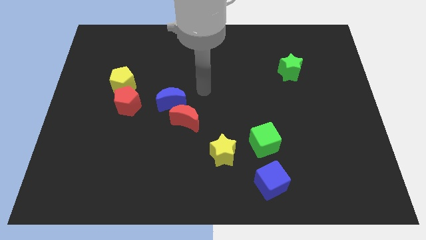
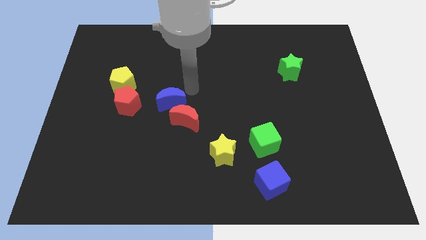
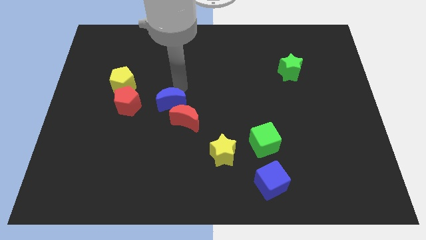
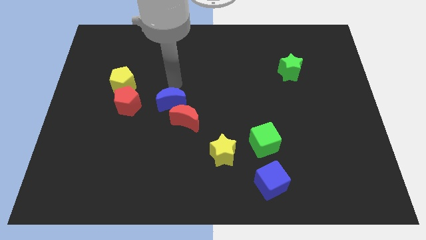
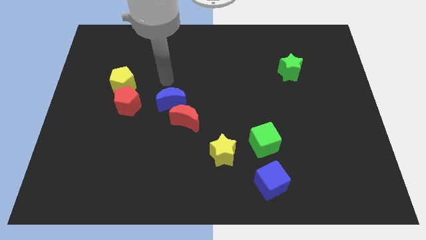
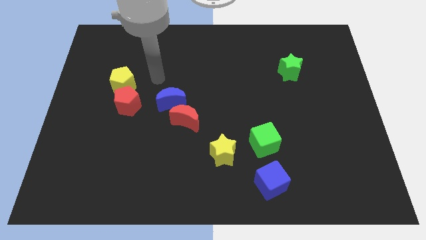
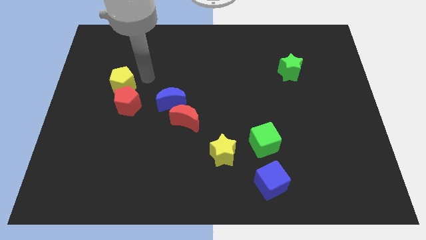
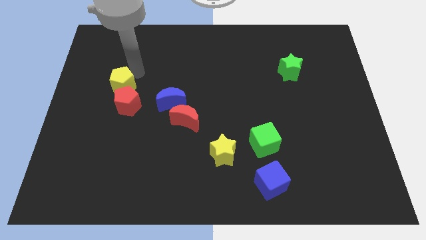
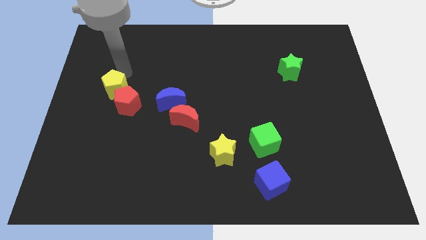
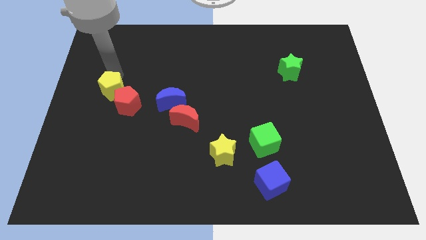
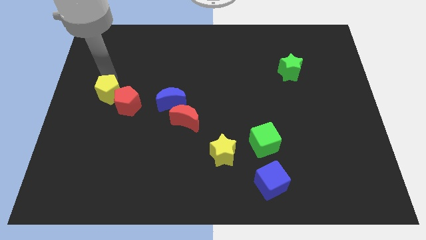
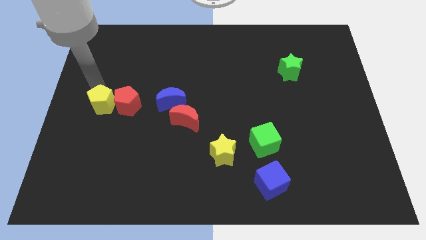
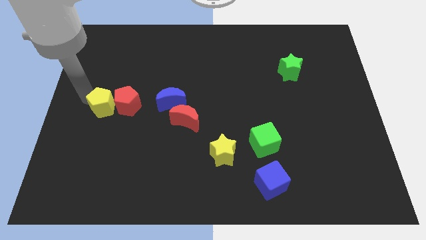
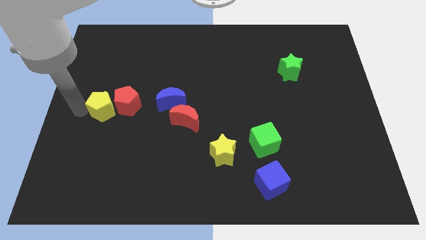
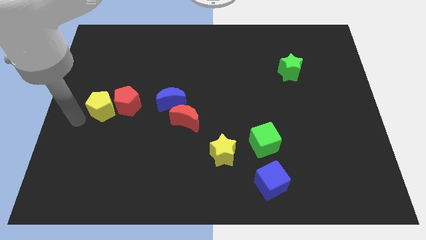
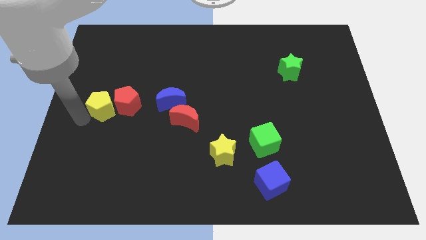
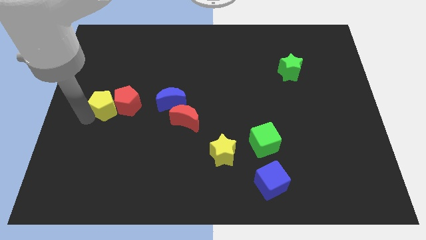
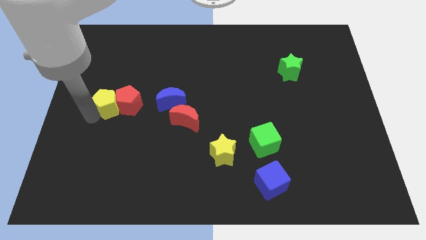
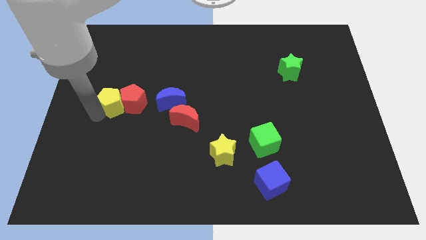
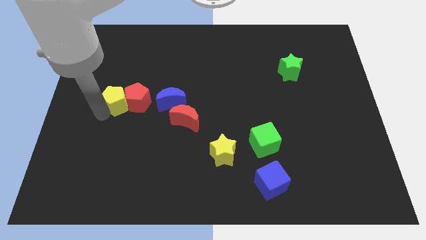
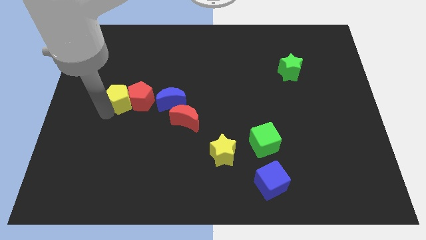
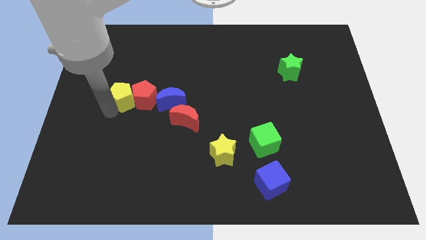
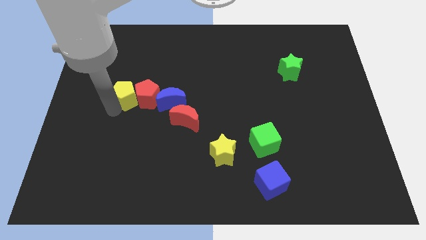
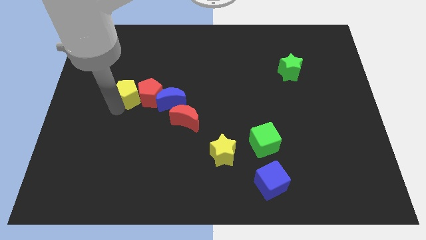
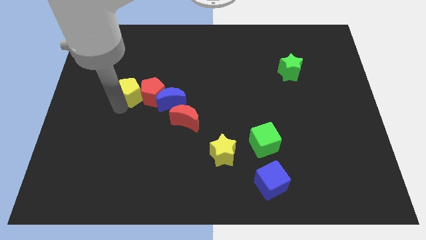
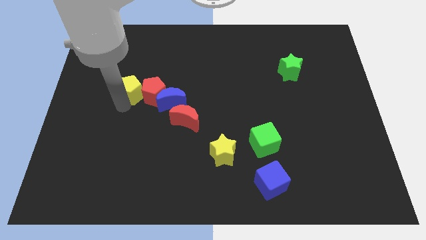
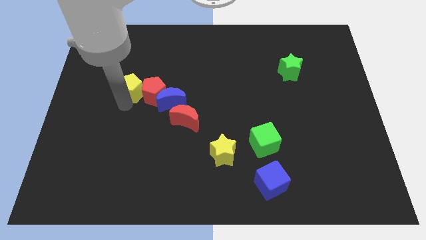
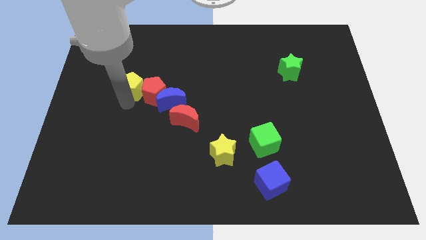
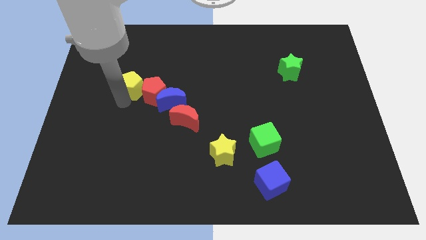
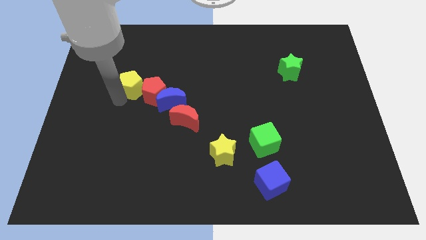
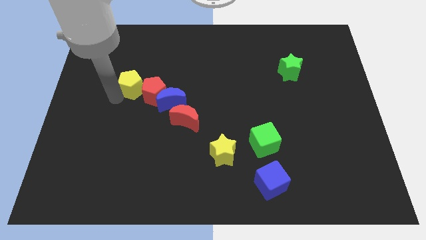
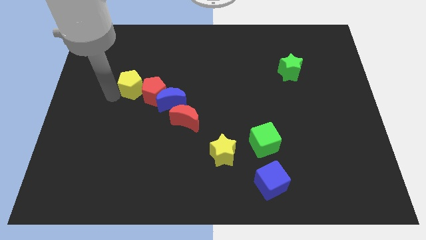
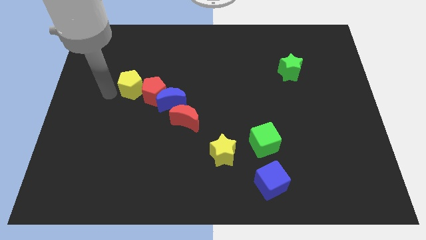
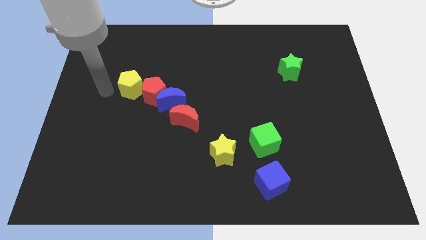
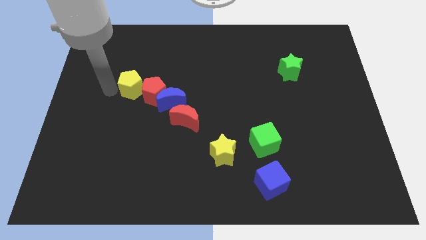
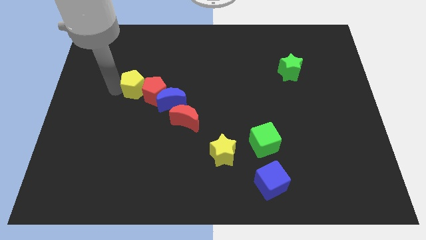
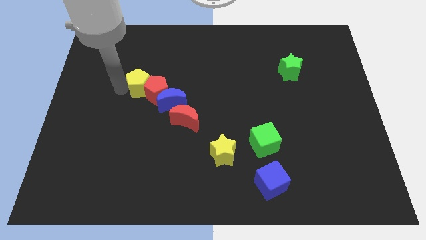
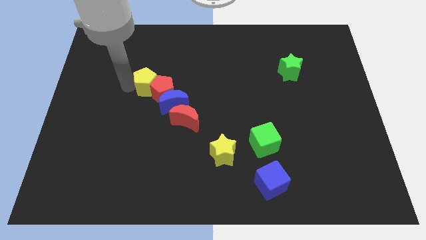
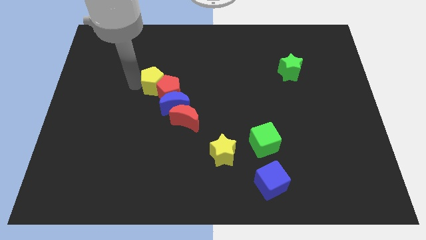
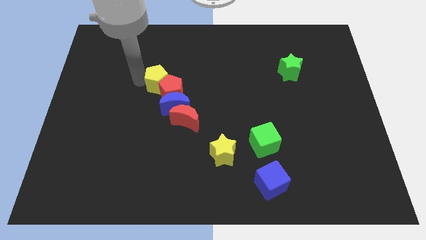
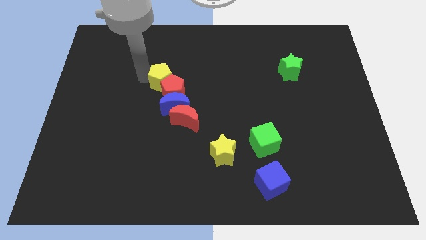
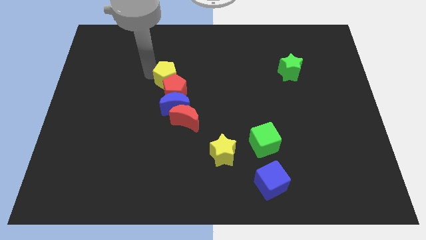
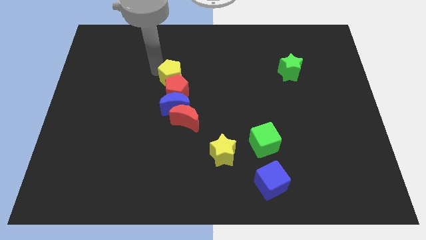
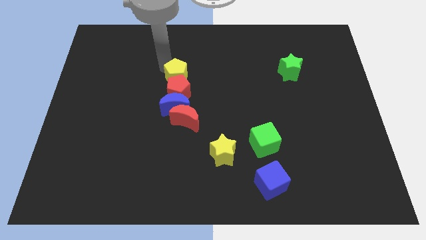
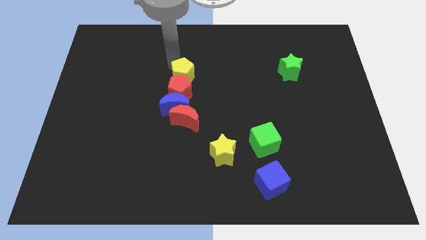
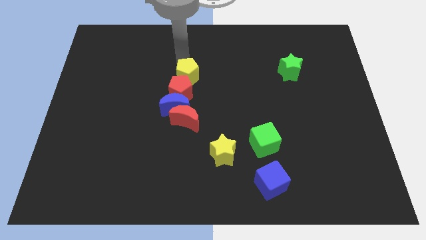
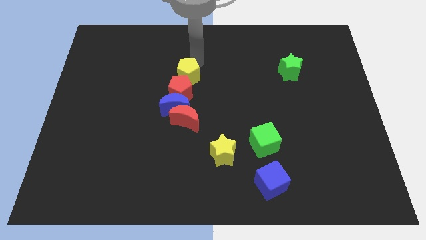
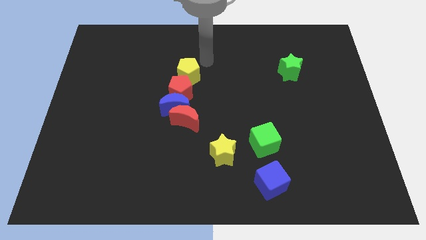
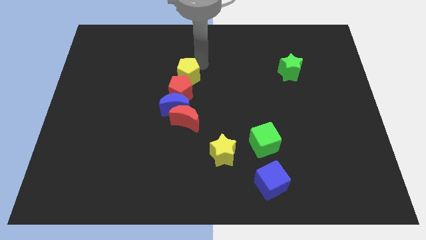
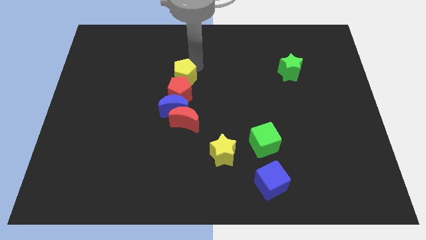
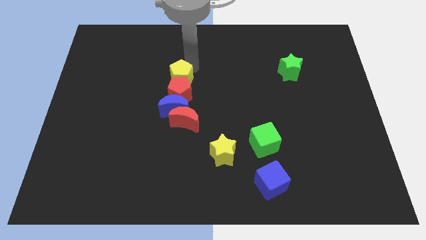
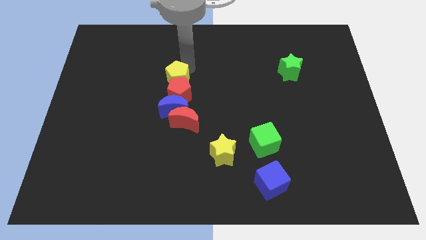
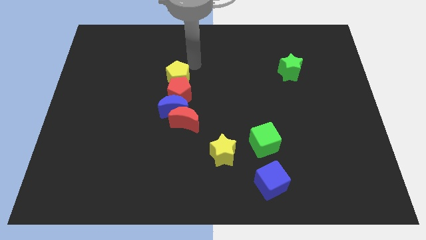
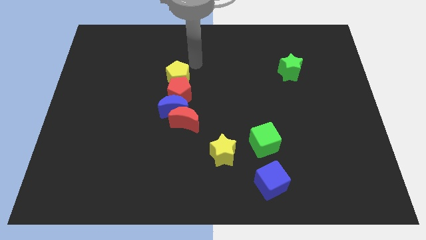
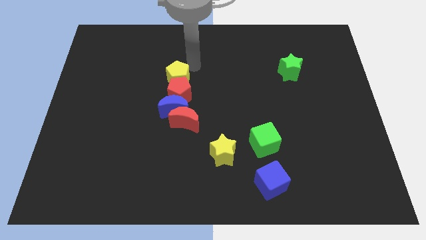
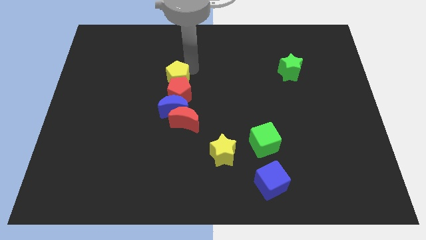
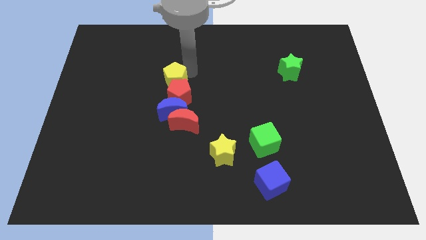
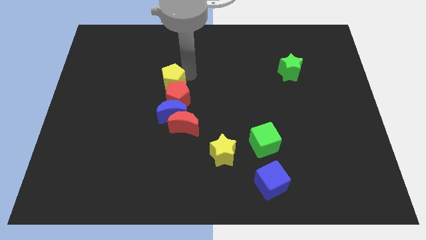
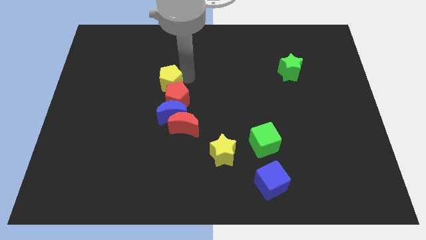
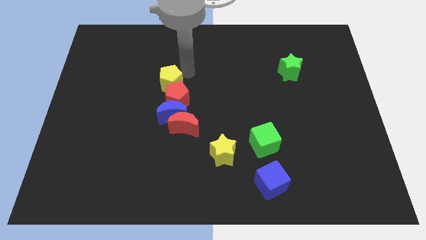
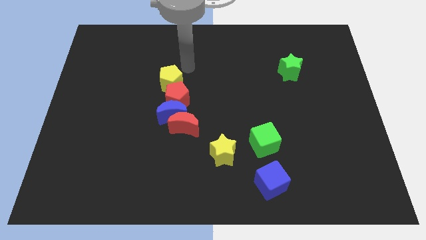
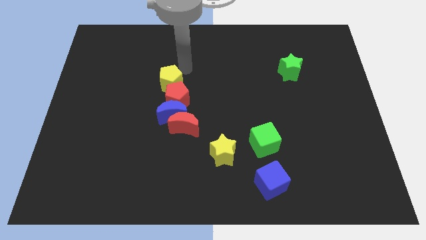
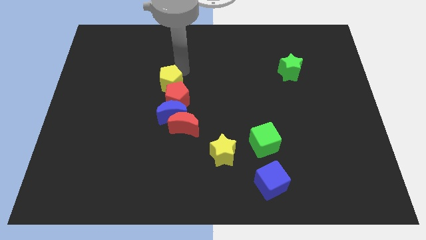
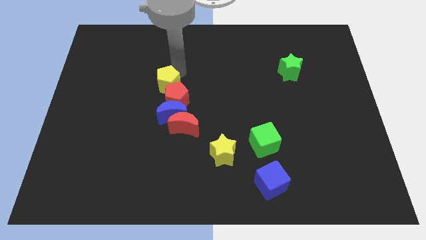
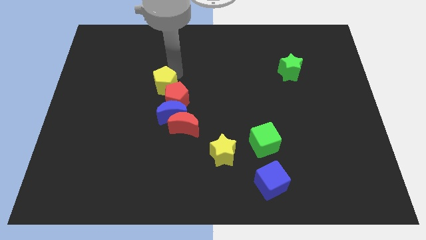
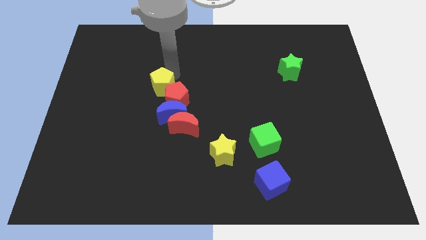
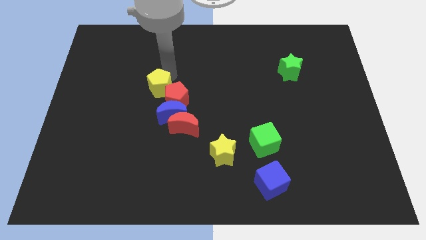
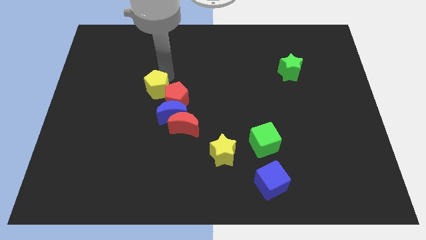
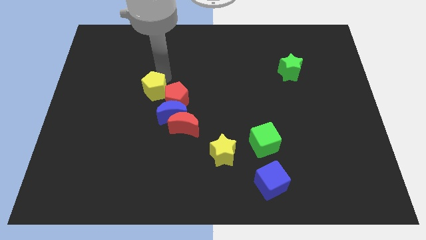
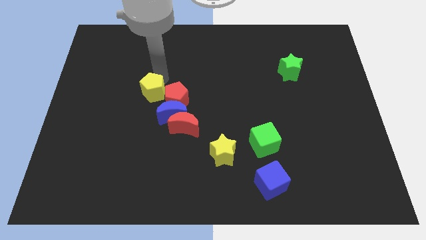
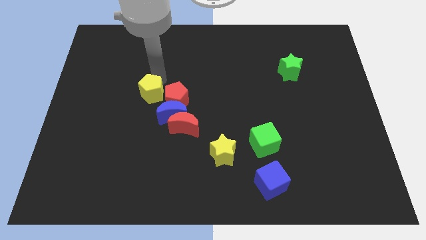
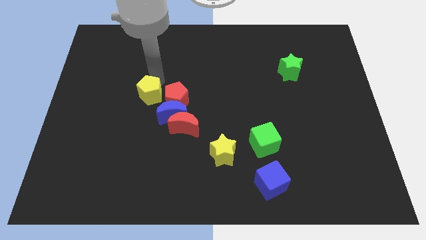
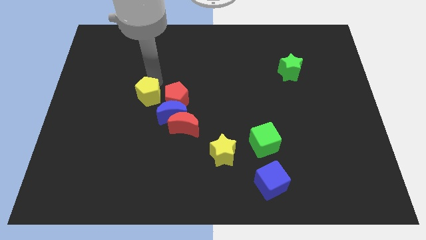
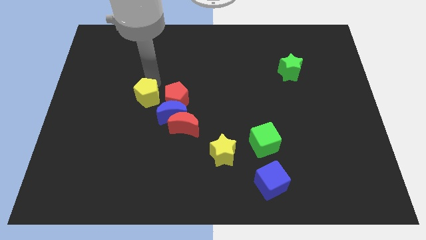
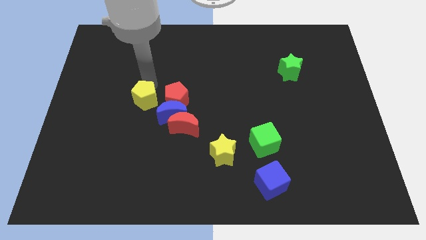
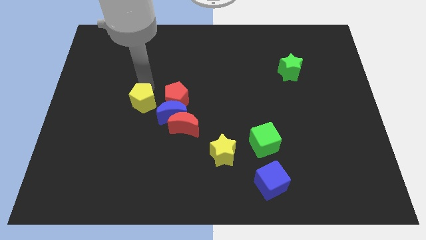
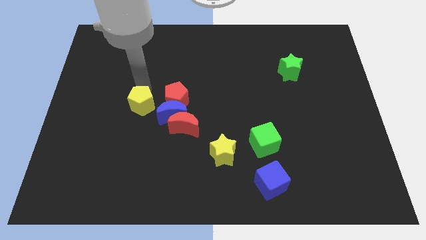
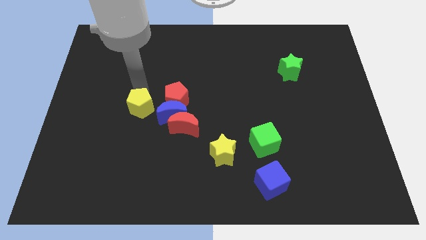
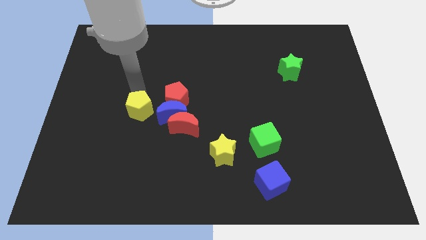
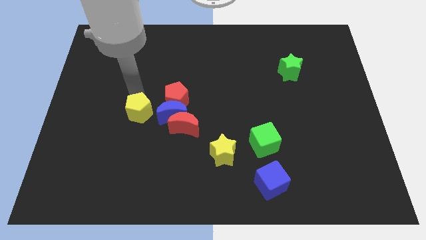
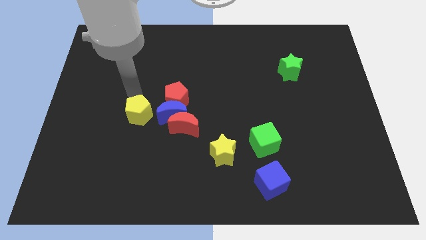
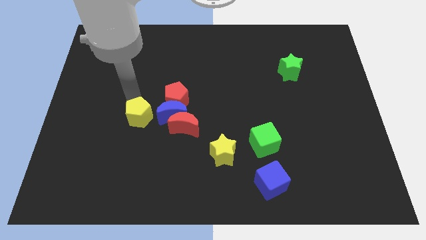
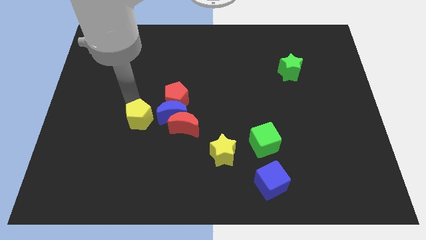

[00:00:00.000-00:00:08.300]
slide the yellow pentagon to the bottom left of the blue moon

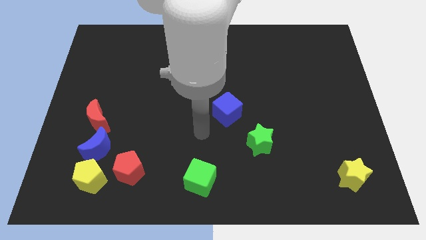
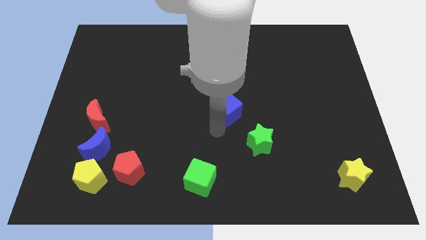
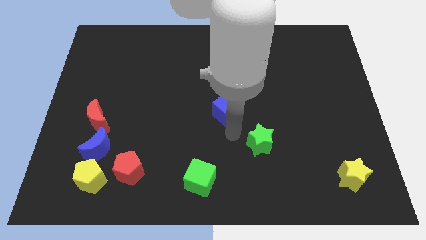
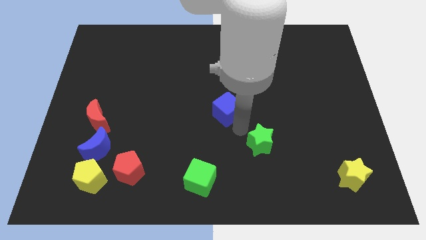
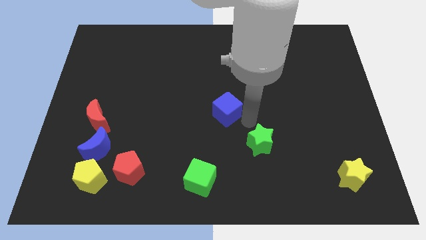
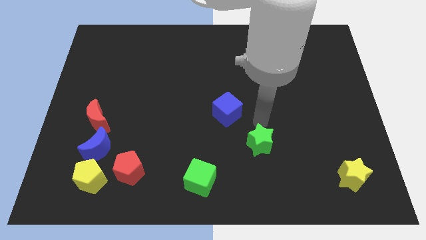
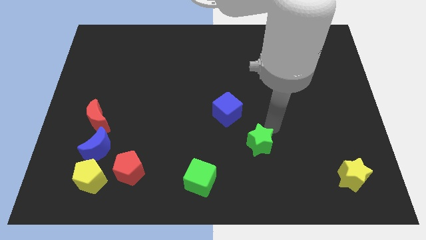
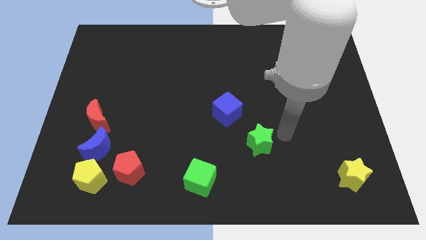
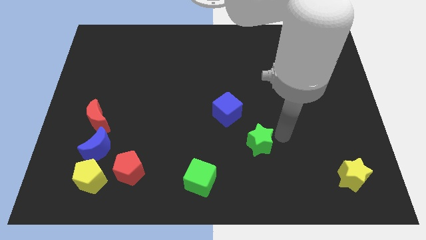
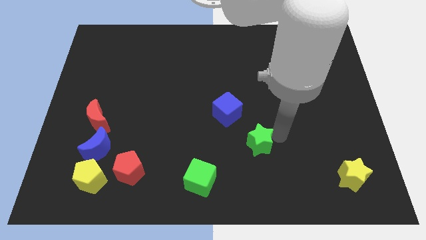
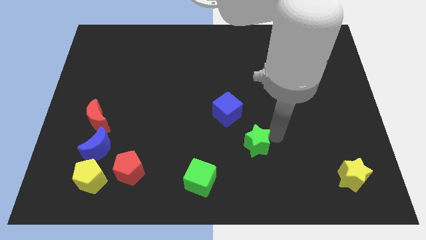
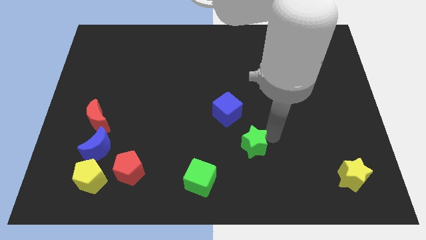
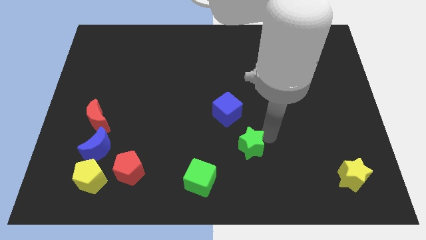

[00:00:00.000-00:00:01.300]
put the green star to the bottom of the blue cube
